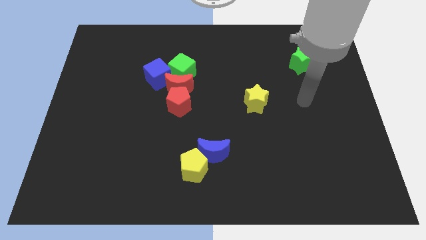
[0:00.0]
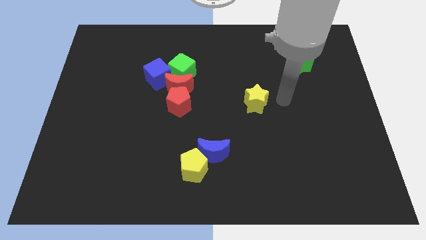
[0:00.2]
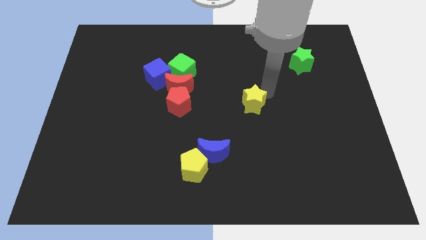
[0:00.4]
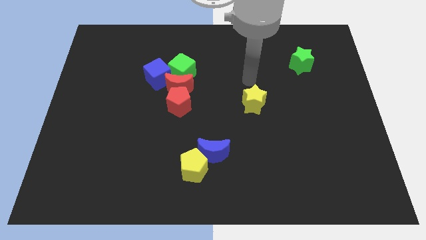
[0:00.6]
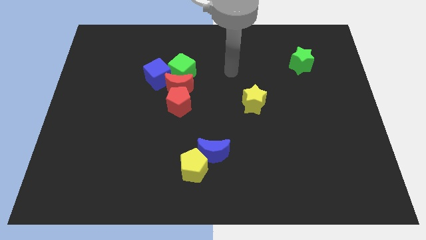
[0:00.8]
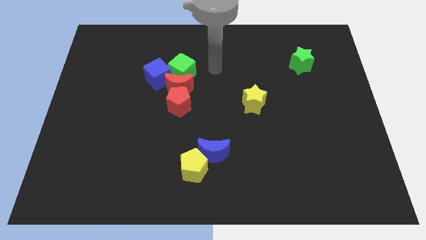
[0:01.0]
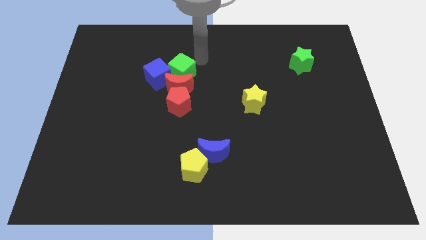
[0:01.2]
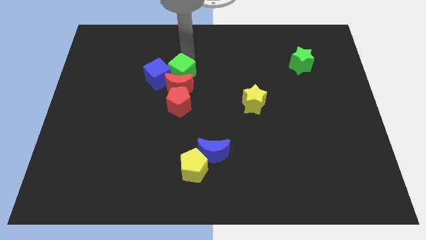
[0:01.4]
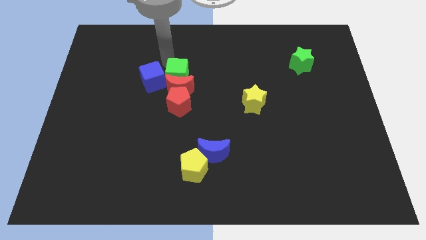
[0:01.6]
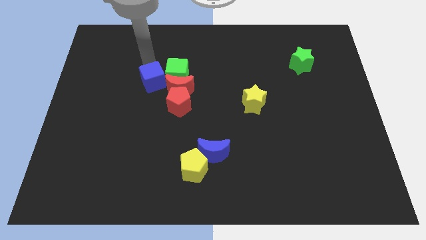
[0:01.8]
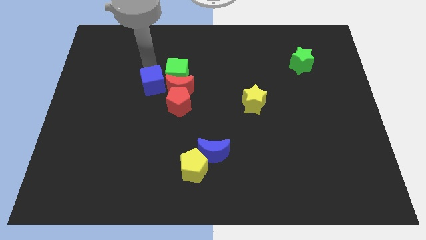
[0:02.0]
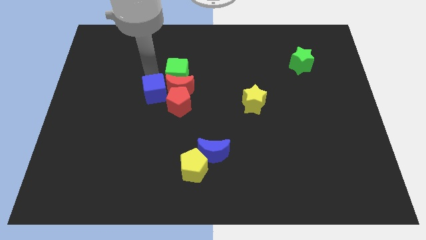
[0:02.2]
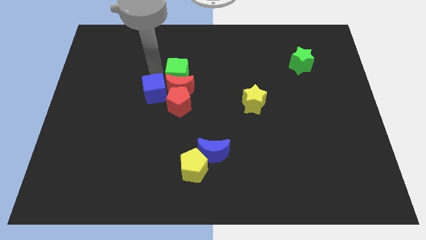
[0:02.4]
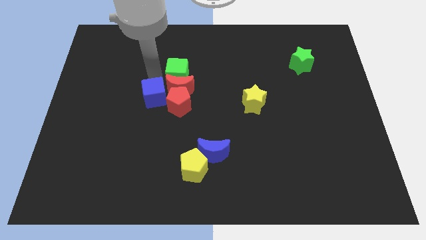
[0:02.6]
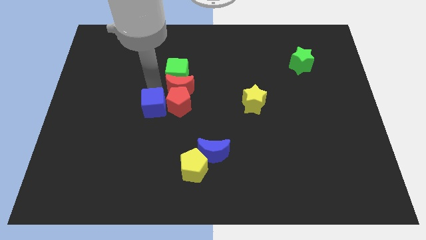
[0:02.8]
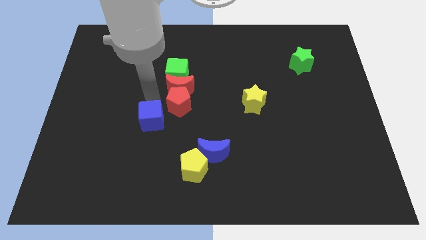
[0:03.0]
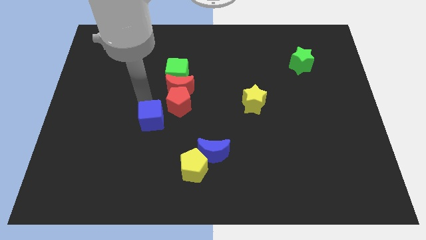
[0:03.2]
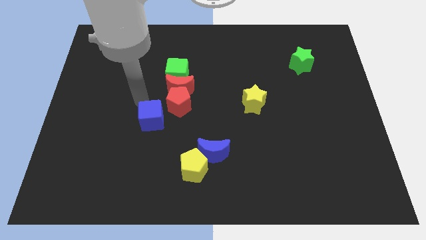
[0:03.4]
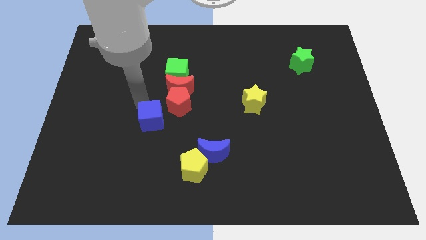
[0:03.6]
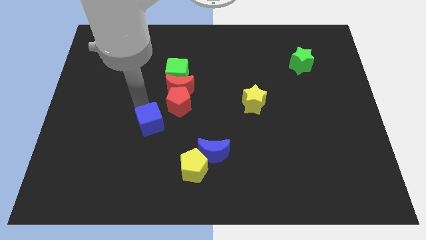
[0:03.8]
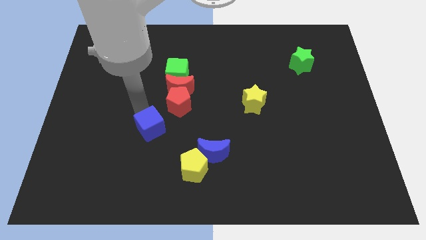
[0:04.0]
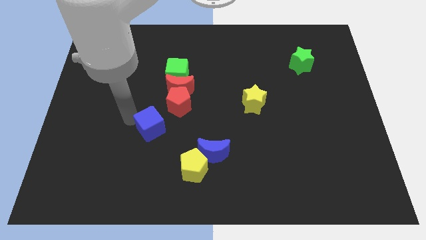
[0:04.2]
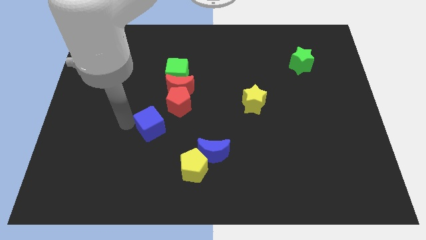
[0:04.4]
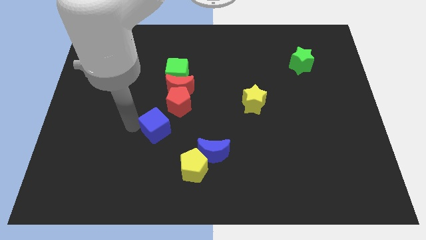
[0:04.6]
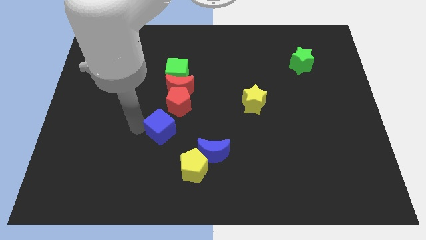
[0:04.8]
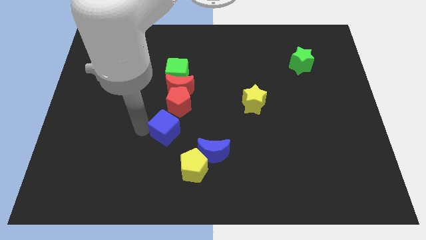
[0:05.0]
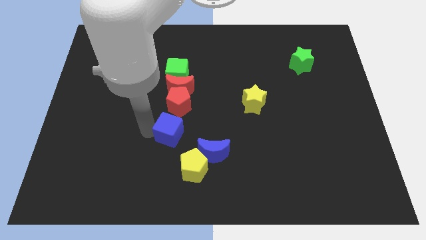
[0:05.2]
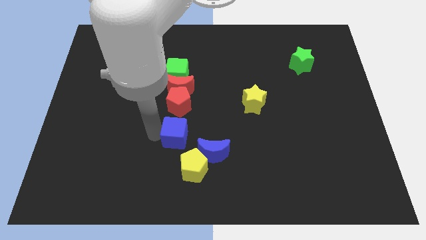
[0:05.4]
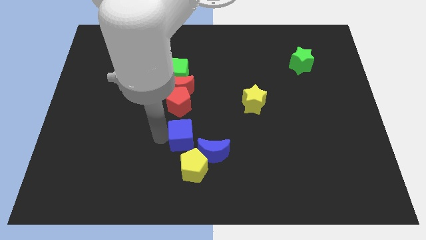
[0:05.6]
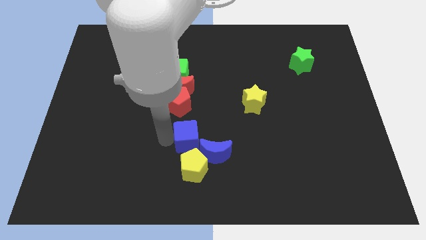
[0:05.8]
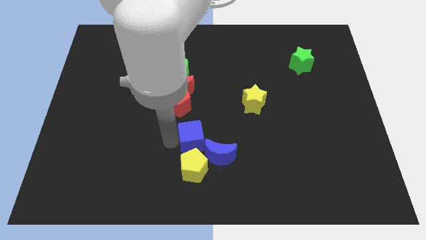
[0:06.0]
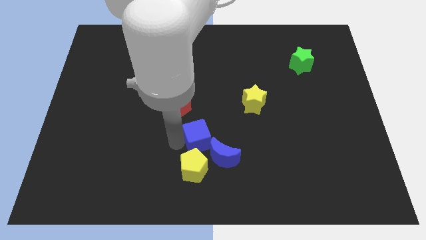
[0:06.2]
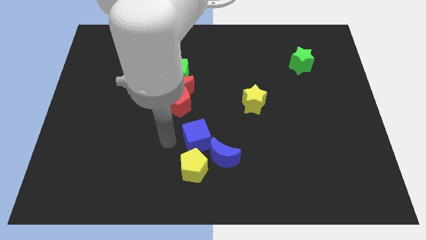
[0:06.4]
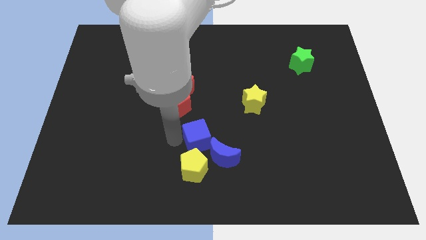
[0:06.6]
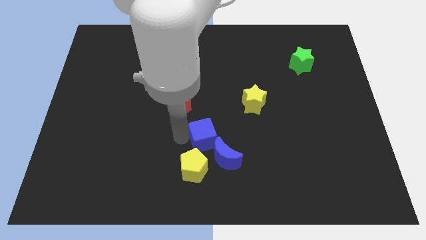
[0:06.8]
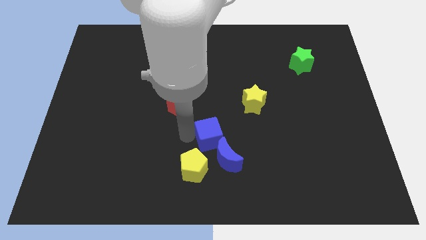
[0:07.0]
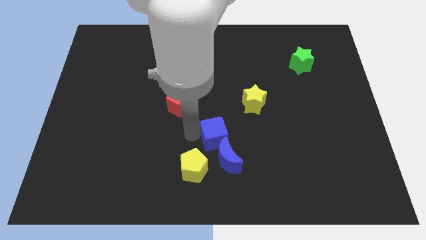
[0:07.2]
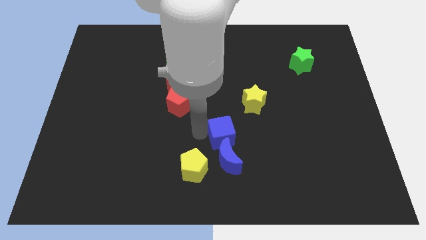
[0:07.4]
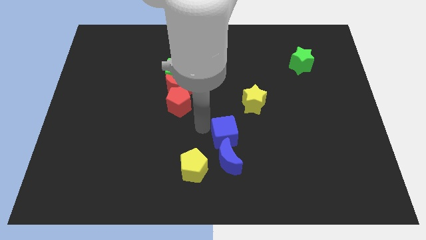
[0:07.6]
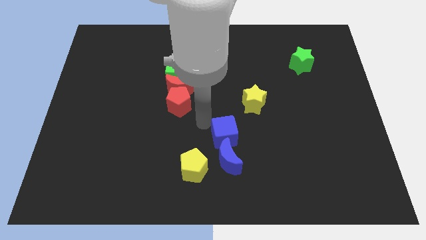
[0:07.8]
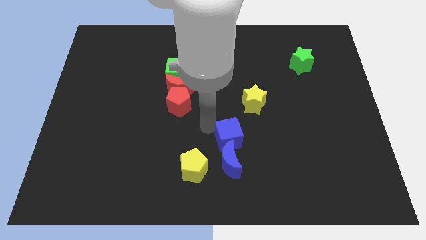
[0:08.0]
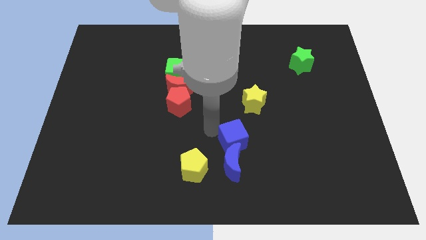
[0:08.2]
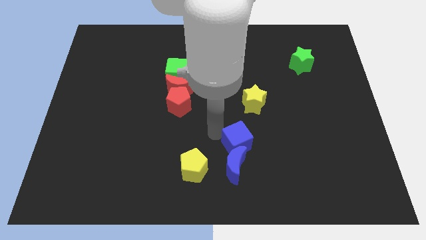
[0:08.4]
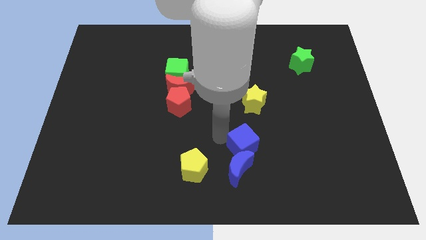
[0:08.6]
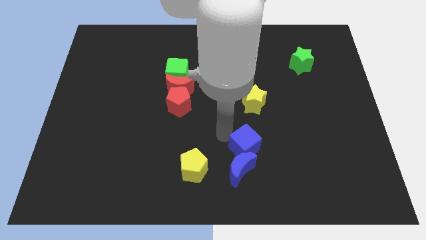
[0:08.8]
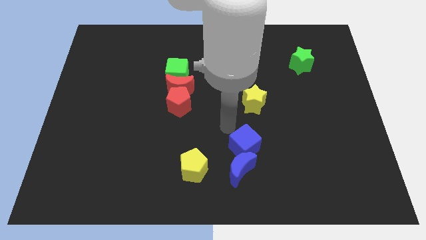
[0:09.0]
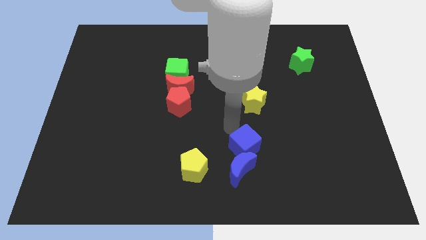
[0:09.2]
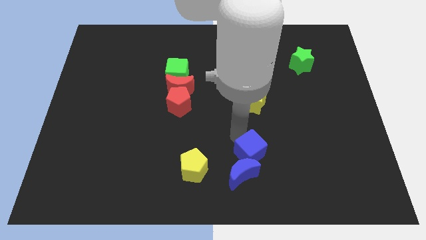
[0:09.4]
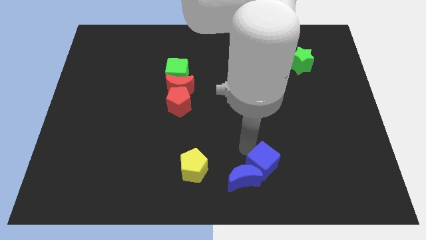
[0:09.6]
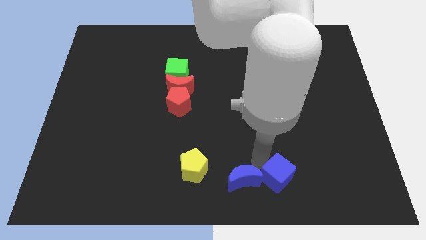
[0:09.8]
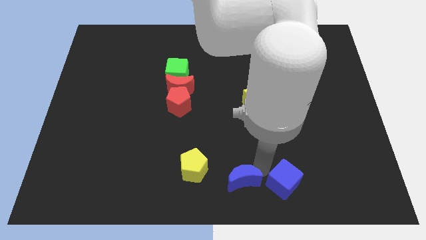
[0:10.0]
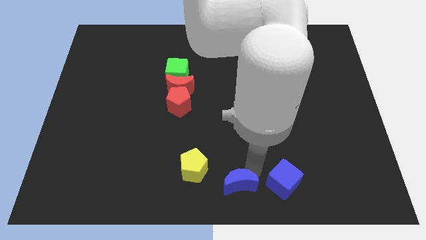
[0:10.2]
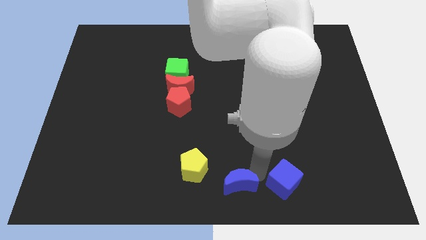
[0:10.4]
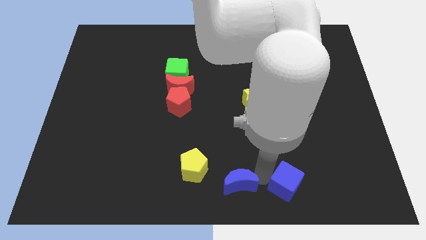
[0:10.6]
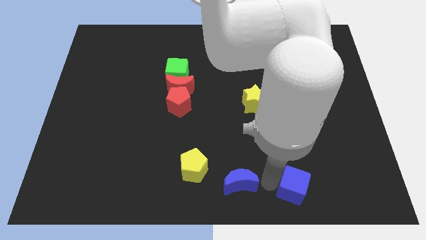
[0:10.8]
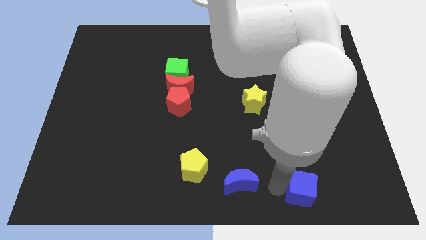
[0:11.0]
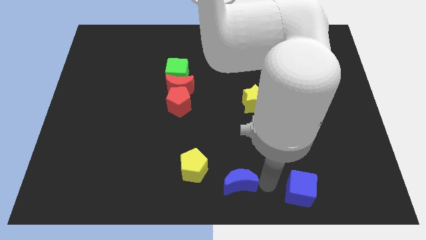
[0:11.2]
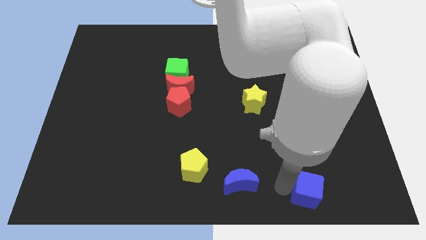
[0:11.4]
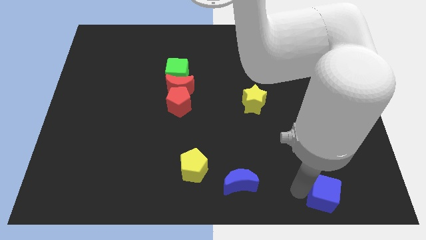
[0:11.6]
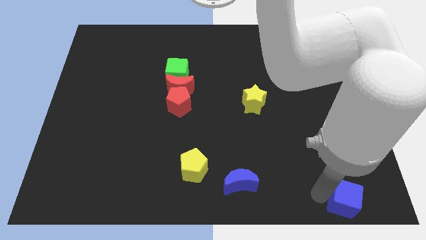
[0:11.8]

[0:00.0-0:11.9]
slide the blue cube to the lower right corner
